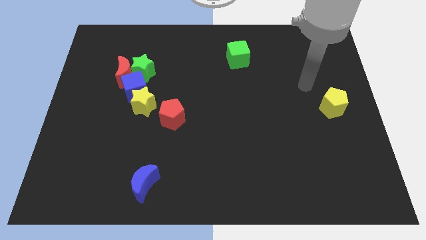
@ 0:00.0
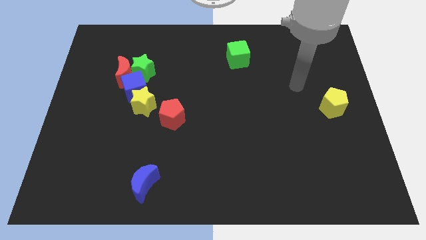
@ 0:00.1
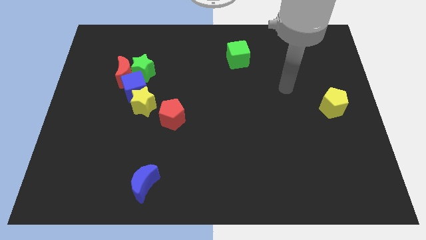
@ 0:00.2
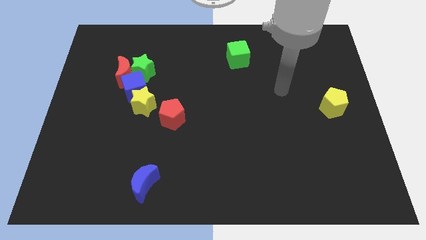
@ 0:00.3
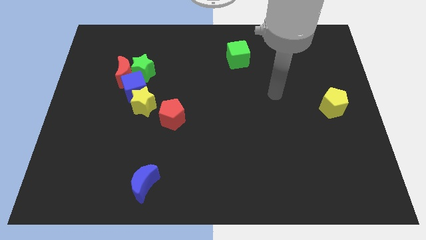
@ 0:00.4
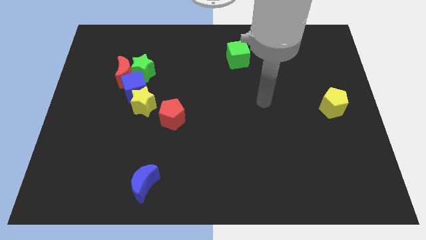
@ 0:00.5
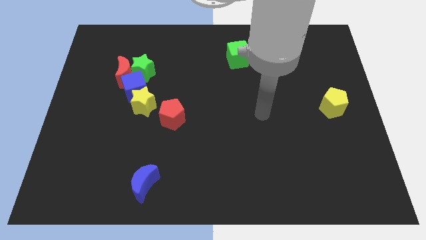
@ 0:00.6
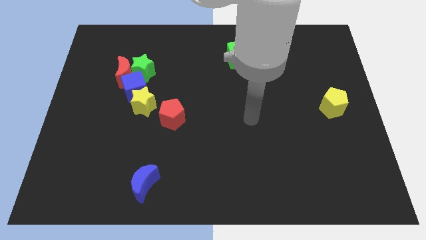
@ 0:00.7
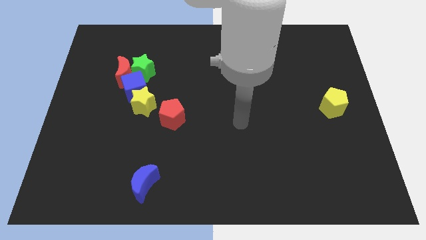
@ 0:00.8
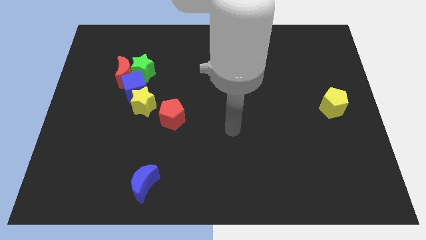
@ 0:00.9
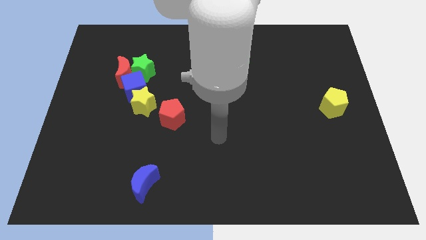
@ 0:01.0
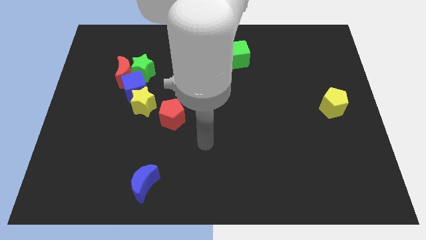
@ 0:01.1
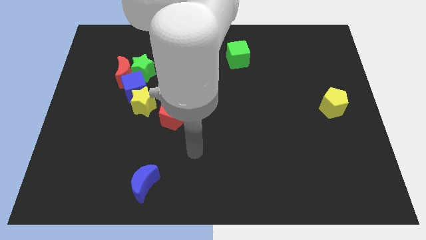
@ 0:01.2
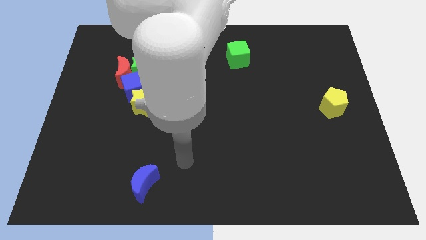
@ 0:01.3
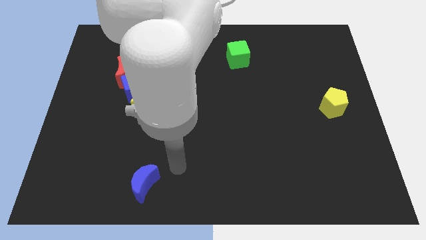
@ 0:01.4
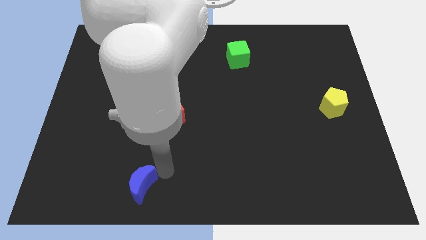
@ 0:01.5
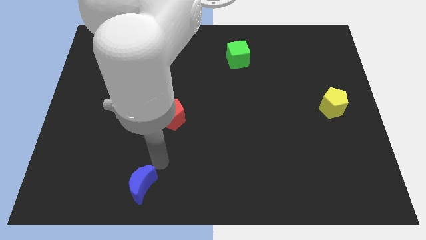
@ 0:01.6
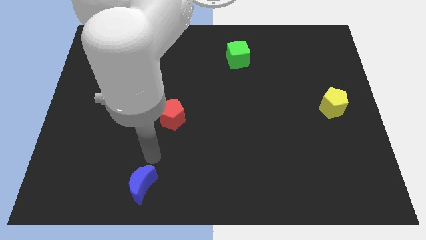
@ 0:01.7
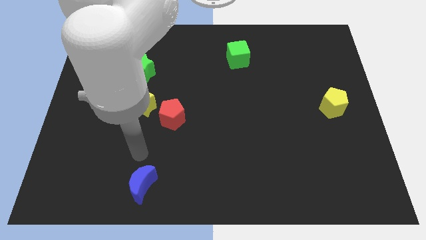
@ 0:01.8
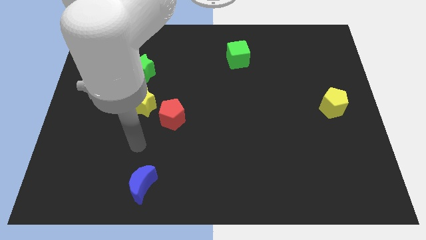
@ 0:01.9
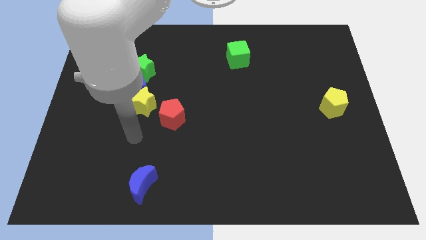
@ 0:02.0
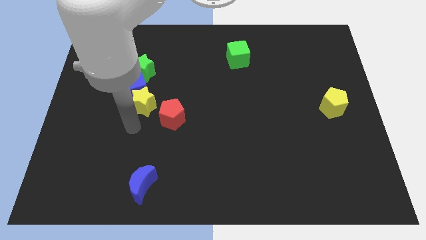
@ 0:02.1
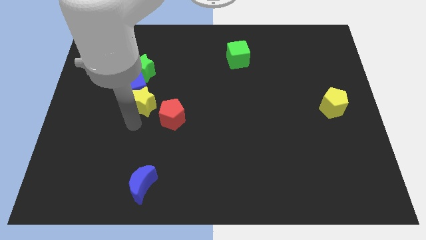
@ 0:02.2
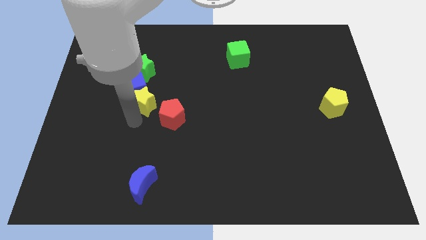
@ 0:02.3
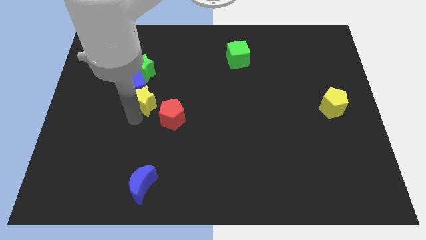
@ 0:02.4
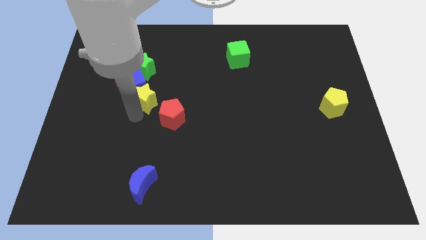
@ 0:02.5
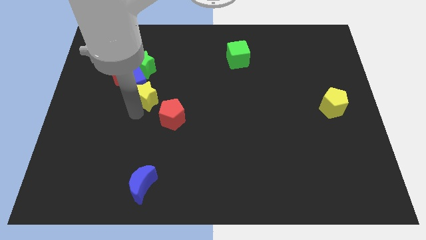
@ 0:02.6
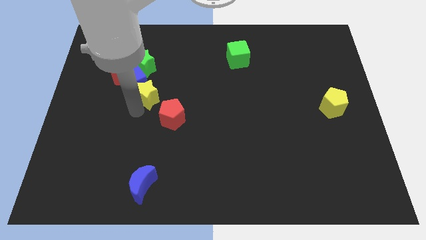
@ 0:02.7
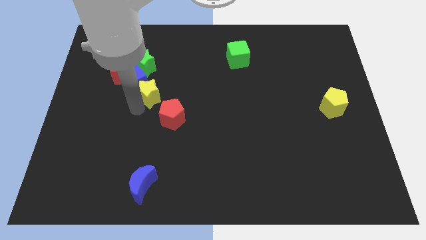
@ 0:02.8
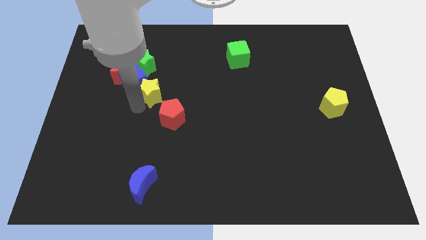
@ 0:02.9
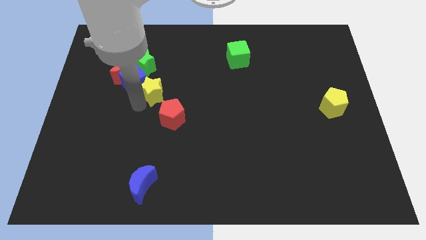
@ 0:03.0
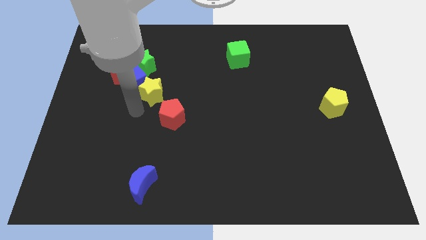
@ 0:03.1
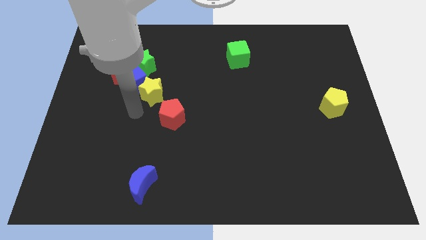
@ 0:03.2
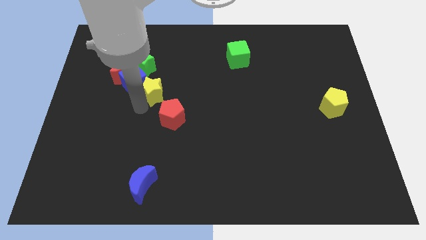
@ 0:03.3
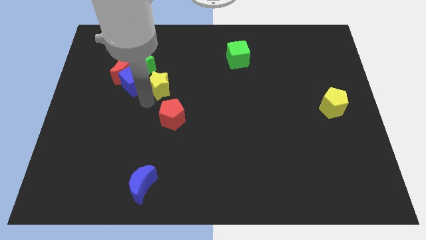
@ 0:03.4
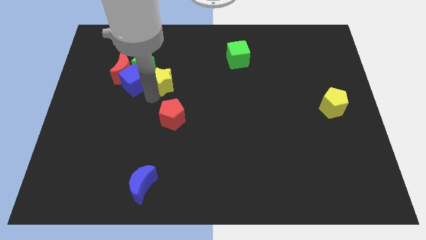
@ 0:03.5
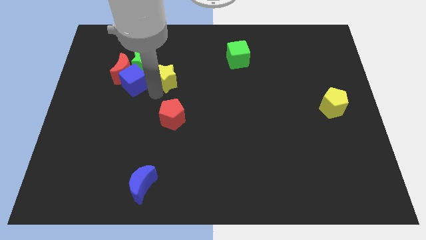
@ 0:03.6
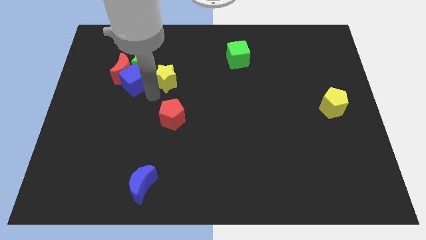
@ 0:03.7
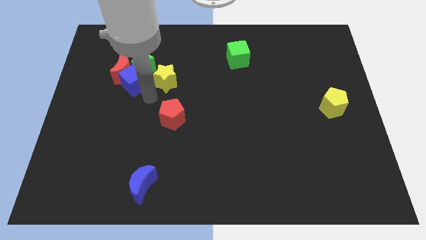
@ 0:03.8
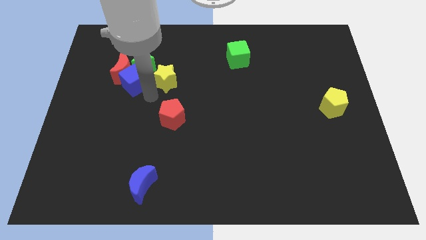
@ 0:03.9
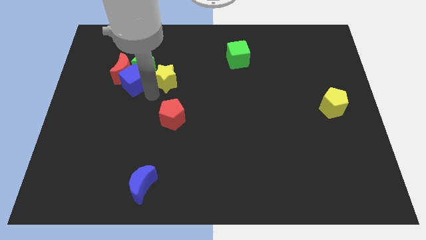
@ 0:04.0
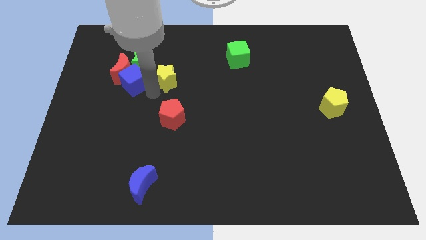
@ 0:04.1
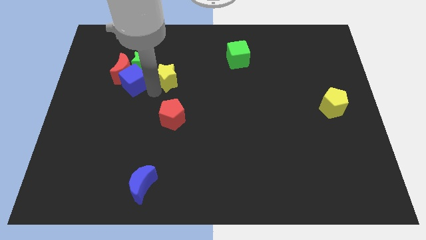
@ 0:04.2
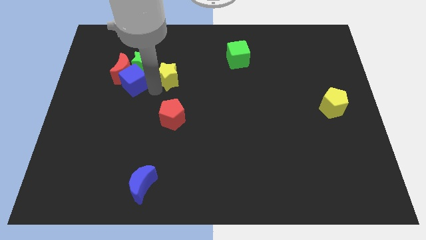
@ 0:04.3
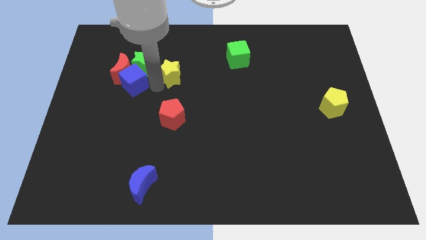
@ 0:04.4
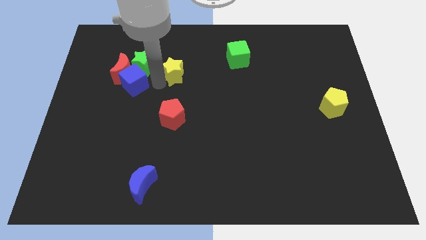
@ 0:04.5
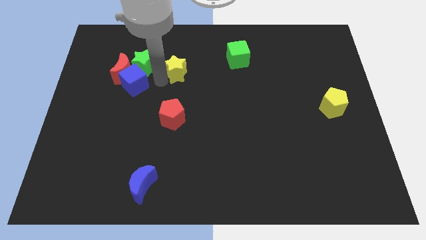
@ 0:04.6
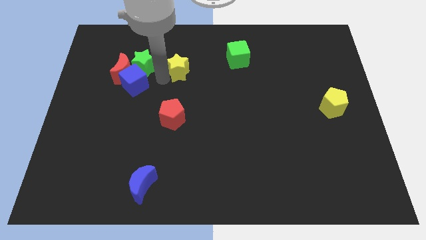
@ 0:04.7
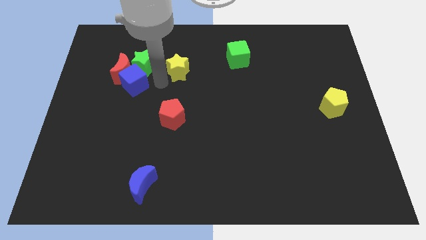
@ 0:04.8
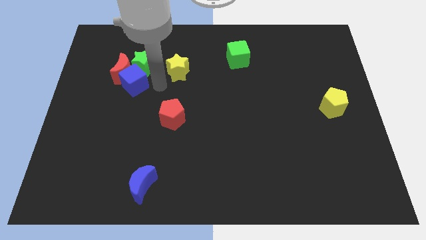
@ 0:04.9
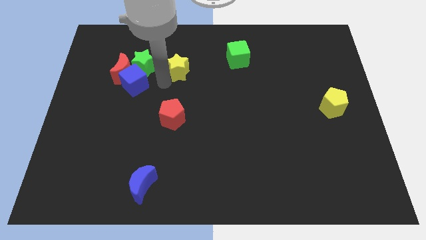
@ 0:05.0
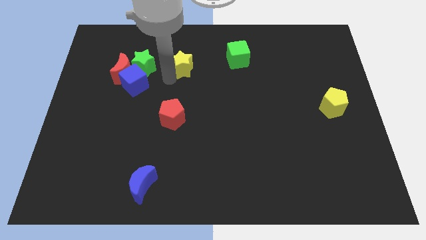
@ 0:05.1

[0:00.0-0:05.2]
put the yellow star to the left side of the green cube

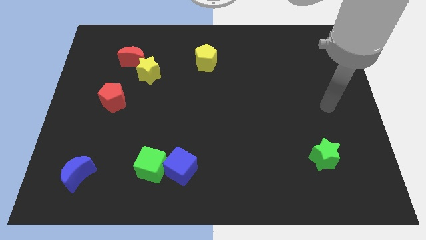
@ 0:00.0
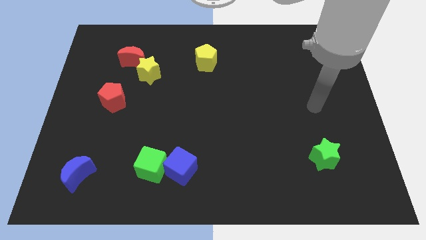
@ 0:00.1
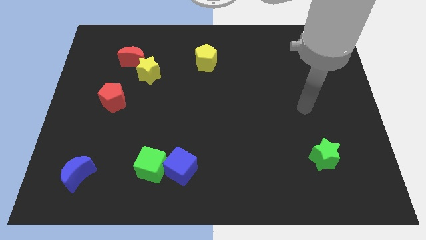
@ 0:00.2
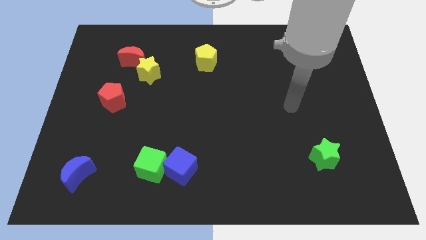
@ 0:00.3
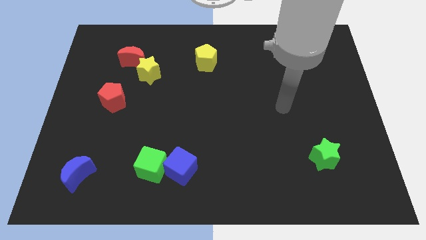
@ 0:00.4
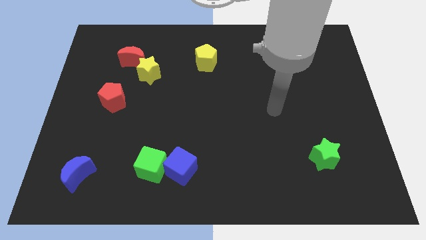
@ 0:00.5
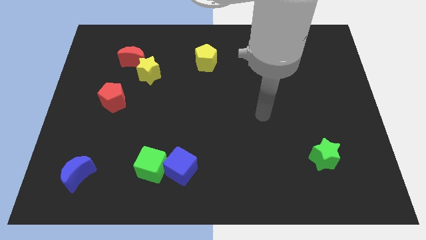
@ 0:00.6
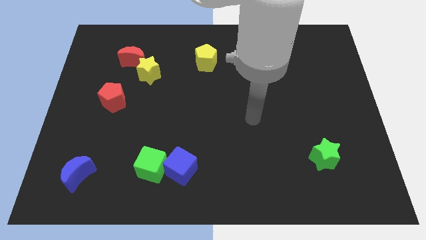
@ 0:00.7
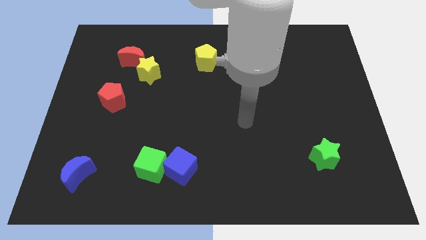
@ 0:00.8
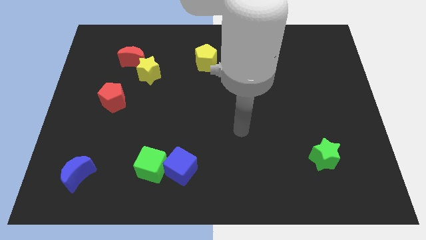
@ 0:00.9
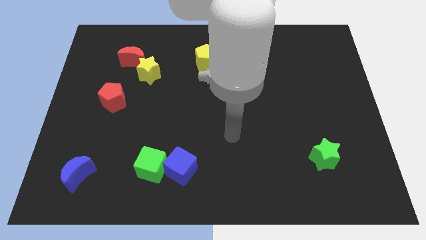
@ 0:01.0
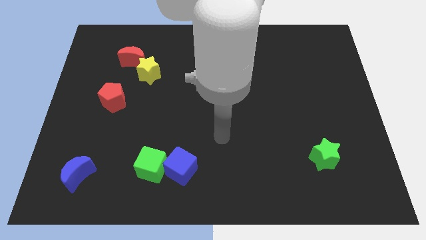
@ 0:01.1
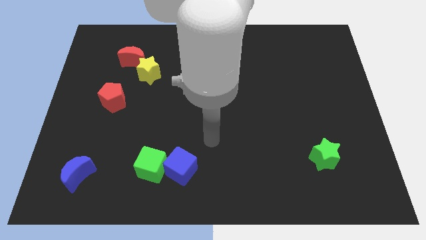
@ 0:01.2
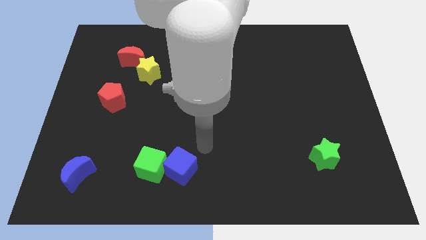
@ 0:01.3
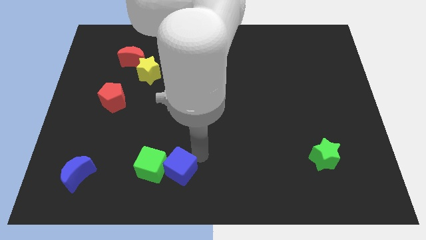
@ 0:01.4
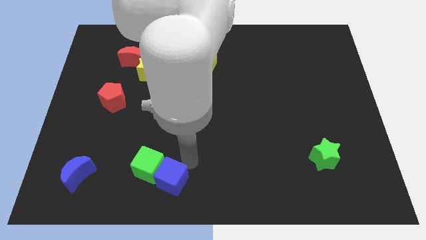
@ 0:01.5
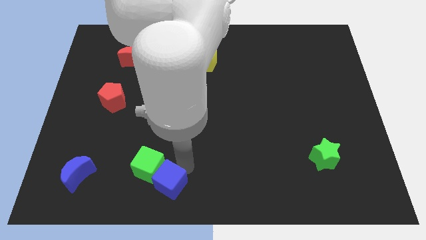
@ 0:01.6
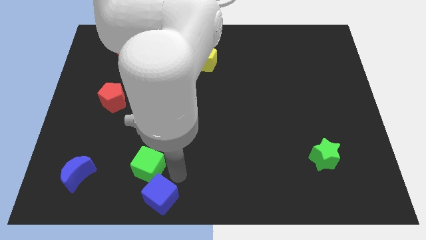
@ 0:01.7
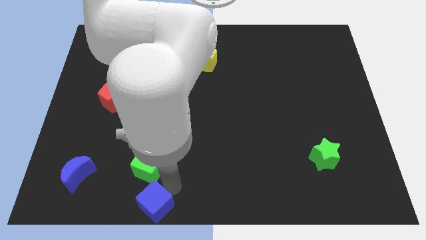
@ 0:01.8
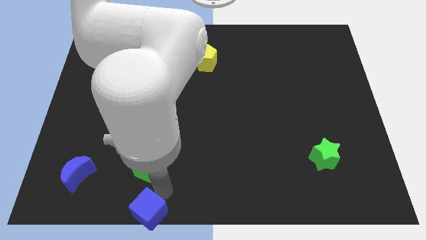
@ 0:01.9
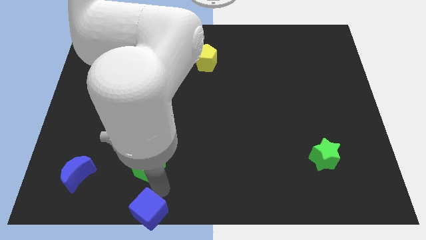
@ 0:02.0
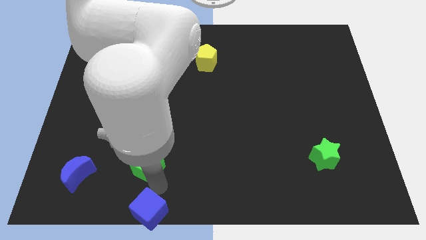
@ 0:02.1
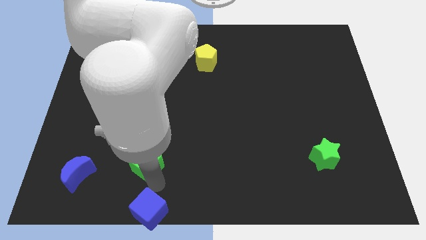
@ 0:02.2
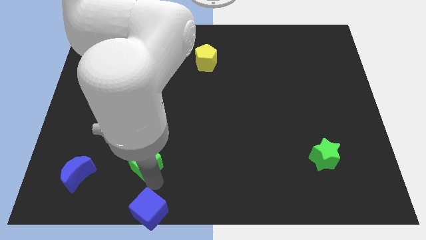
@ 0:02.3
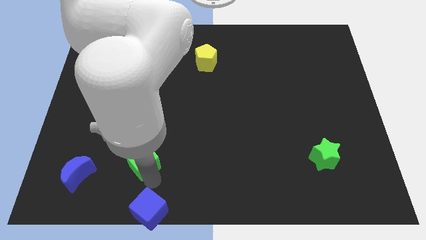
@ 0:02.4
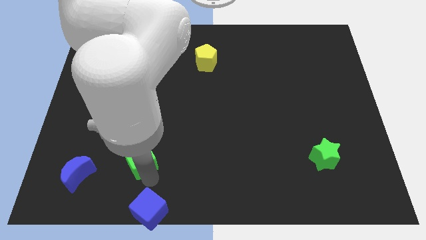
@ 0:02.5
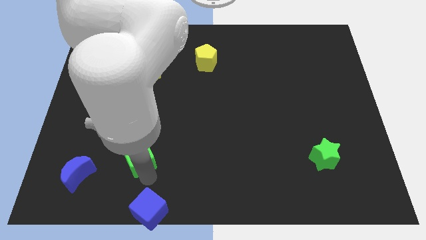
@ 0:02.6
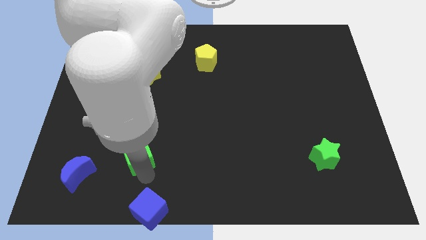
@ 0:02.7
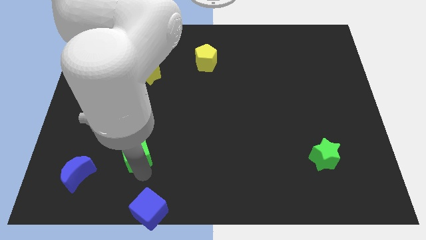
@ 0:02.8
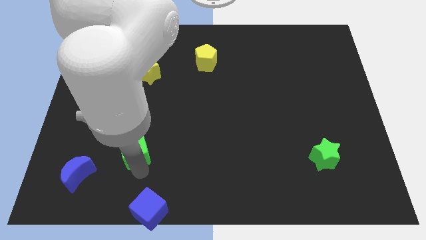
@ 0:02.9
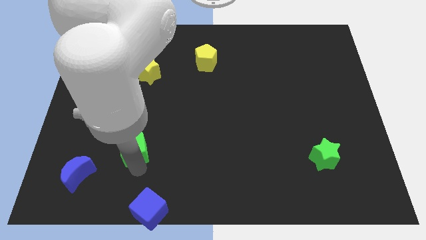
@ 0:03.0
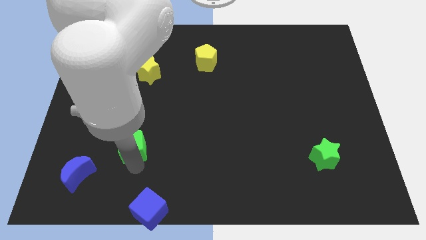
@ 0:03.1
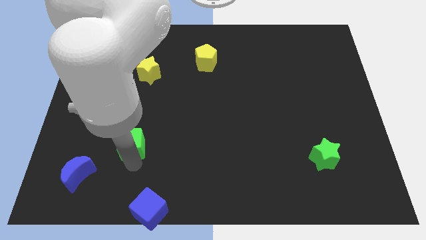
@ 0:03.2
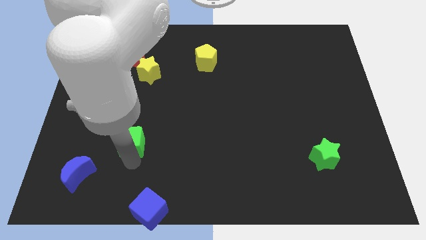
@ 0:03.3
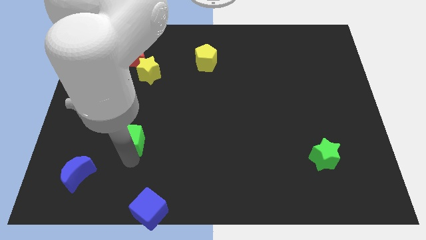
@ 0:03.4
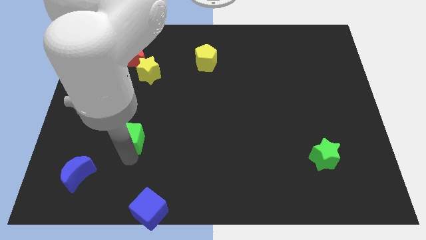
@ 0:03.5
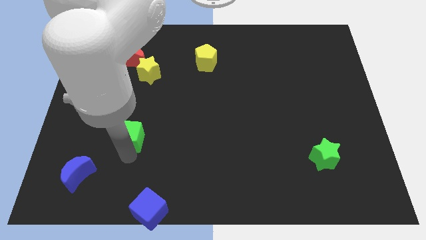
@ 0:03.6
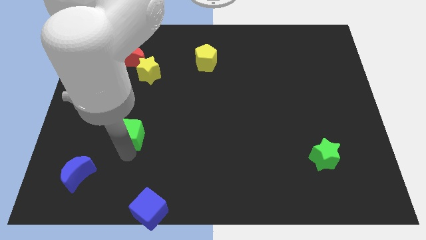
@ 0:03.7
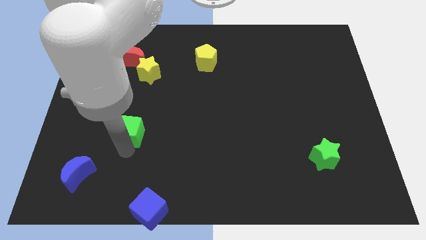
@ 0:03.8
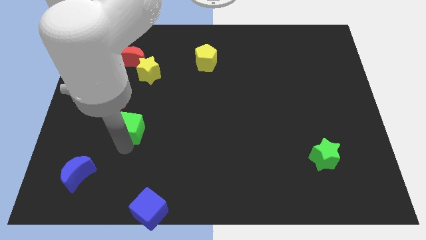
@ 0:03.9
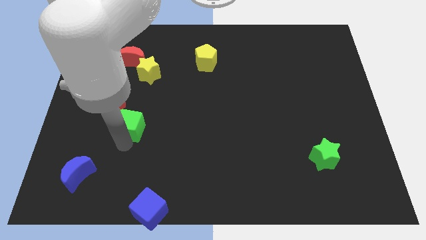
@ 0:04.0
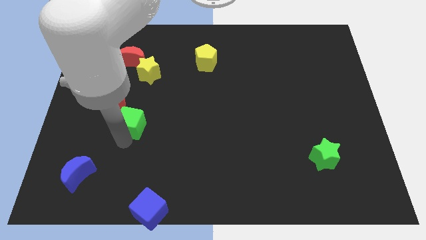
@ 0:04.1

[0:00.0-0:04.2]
slide the green cube below the yellow star
